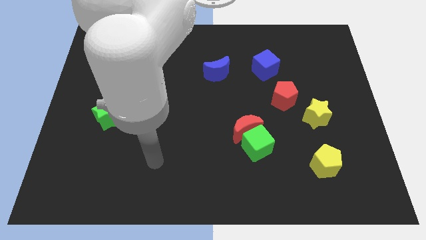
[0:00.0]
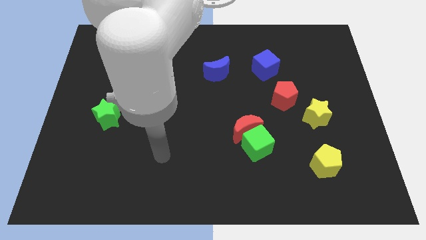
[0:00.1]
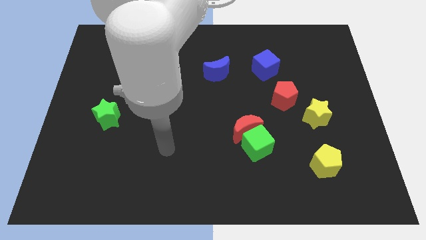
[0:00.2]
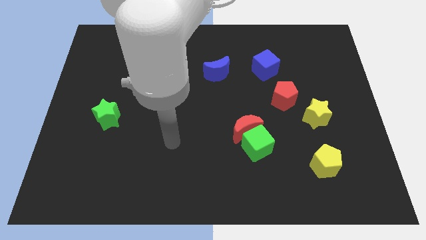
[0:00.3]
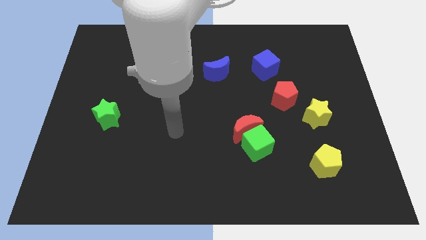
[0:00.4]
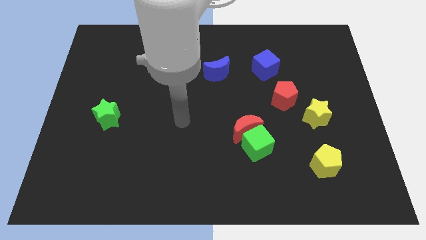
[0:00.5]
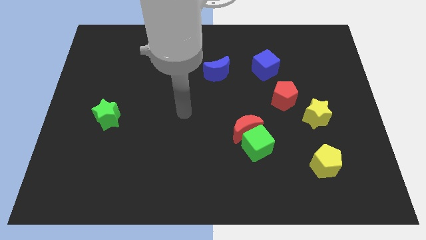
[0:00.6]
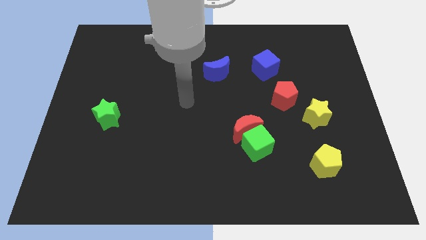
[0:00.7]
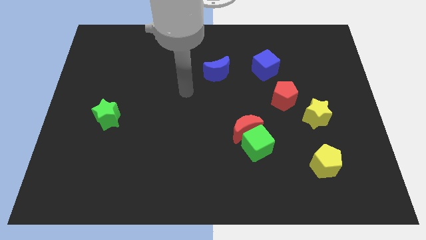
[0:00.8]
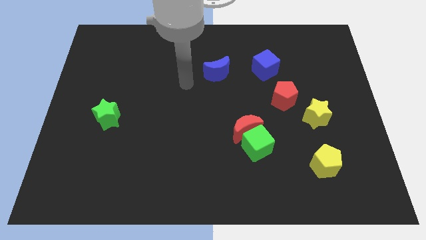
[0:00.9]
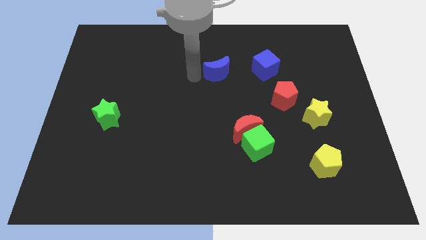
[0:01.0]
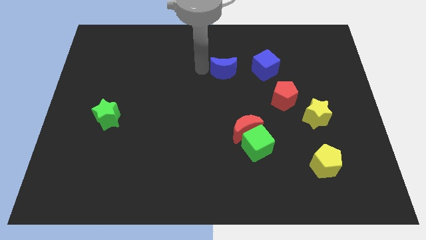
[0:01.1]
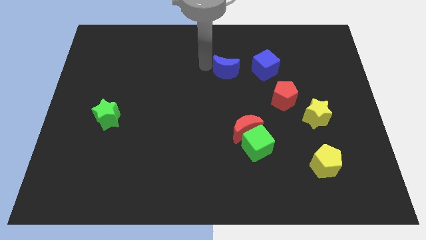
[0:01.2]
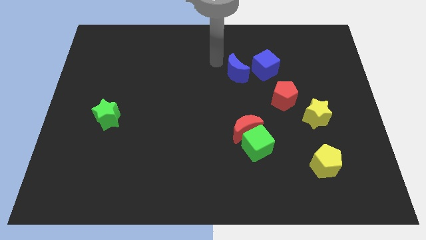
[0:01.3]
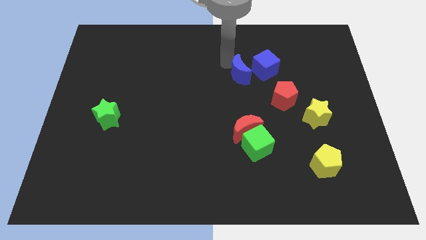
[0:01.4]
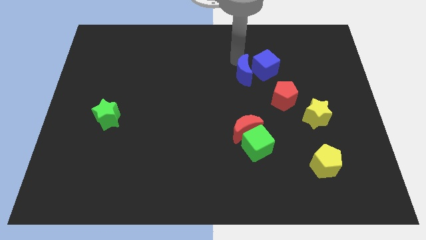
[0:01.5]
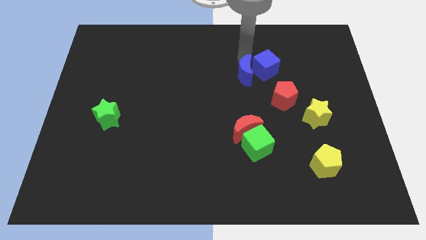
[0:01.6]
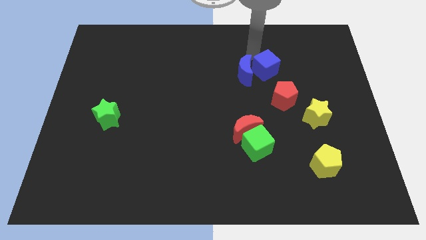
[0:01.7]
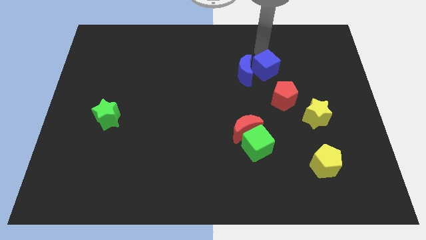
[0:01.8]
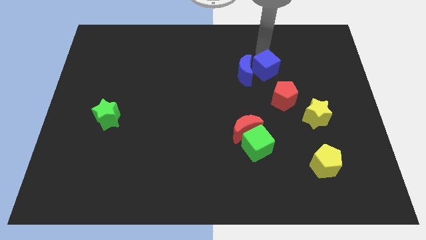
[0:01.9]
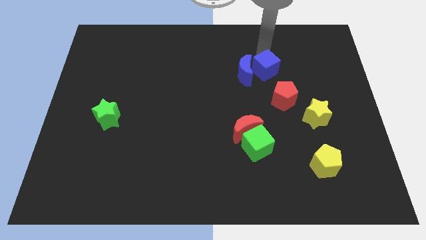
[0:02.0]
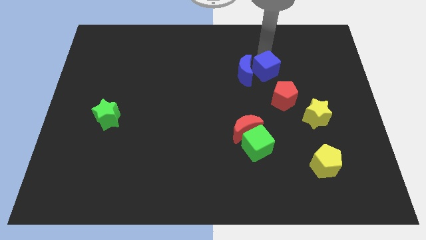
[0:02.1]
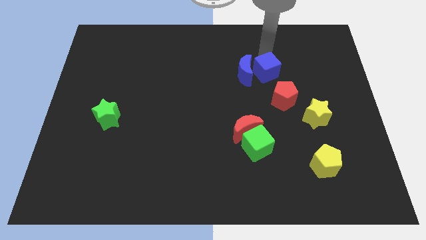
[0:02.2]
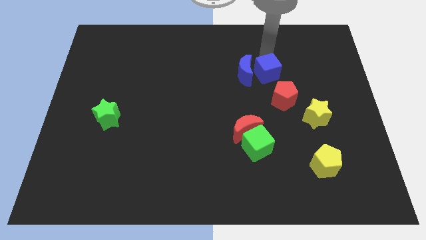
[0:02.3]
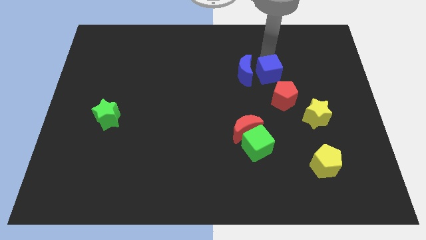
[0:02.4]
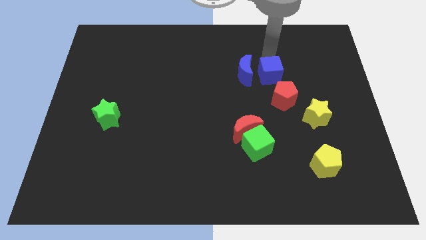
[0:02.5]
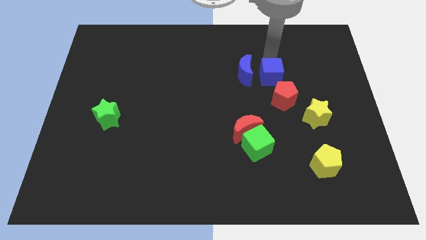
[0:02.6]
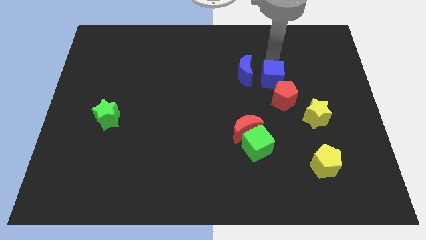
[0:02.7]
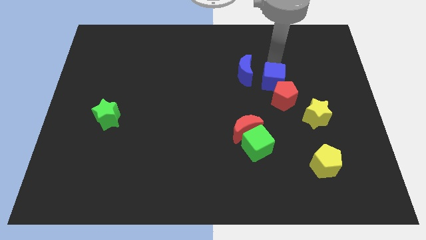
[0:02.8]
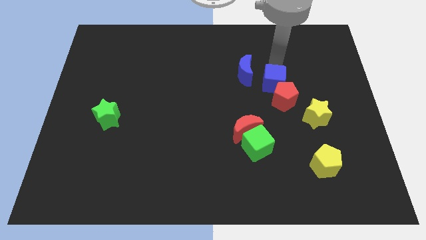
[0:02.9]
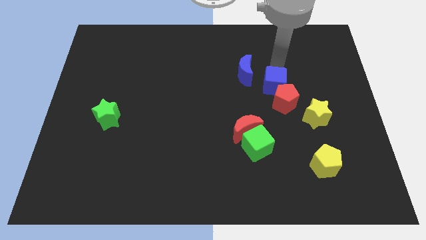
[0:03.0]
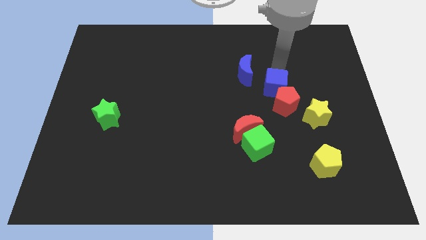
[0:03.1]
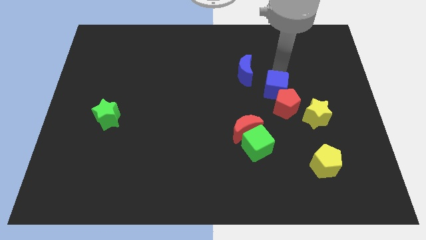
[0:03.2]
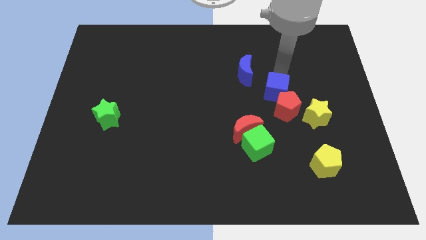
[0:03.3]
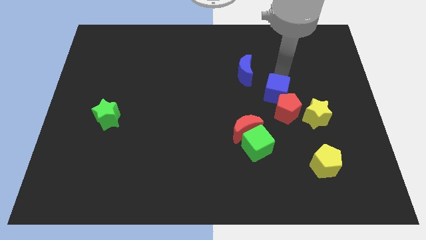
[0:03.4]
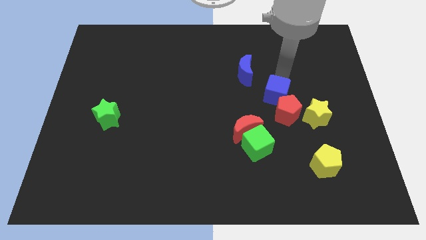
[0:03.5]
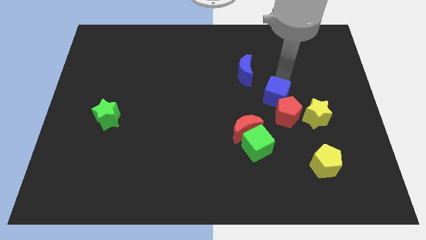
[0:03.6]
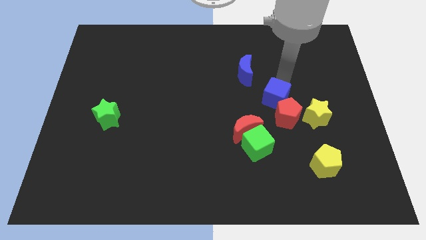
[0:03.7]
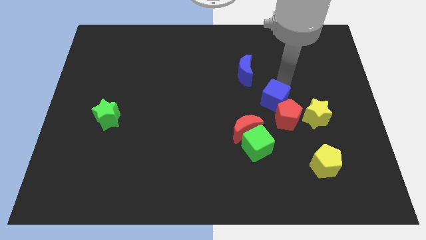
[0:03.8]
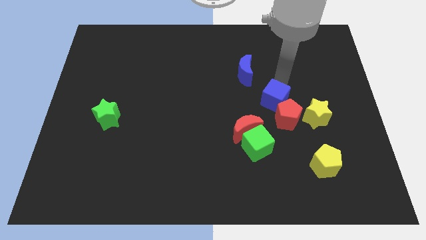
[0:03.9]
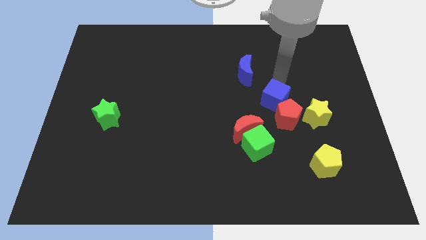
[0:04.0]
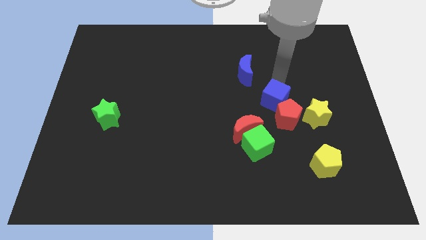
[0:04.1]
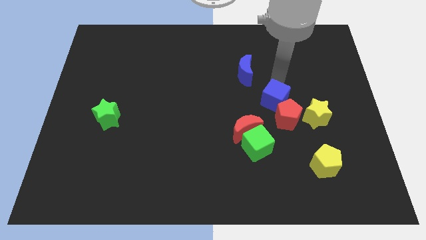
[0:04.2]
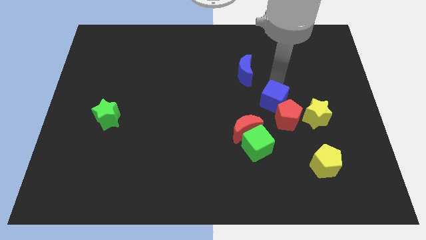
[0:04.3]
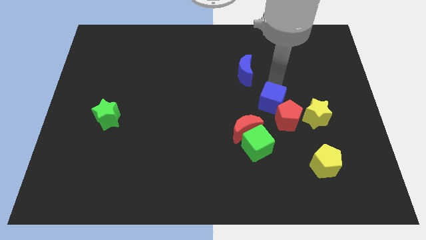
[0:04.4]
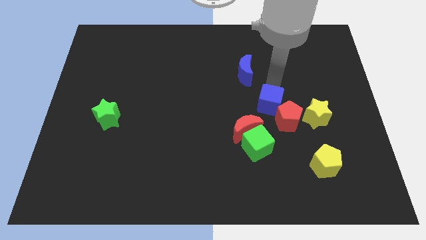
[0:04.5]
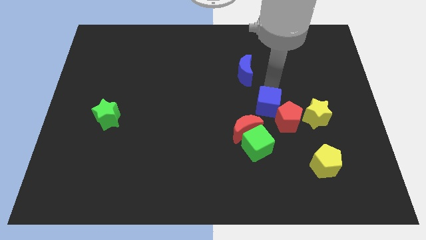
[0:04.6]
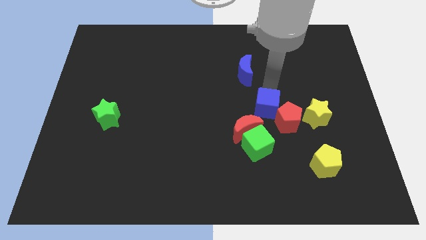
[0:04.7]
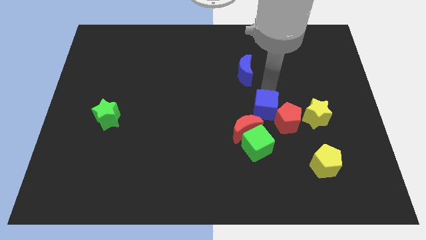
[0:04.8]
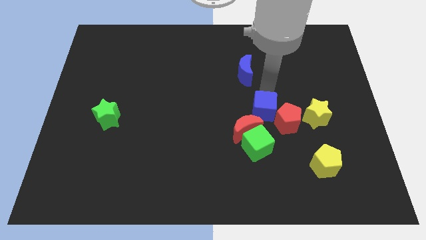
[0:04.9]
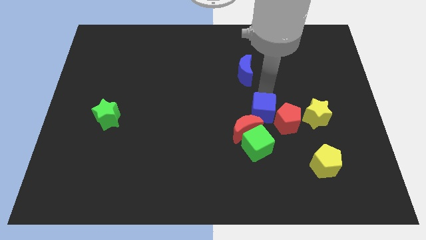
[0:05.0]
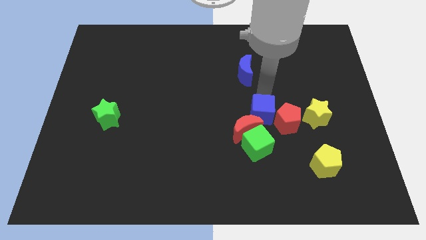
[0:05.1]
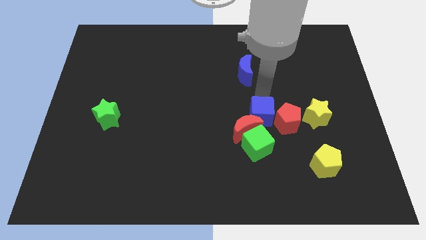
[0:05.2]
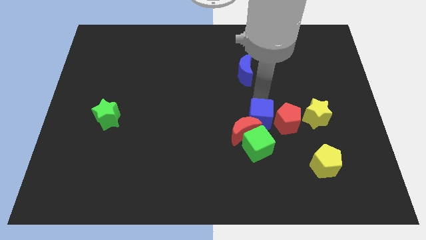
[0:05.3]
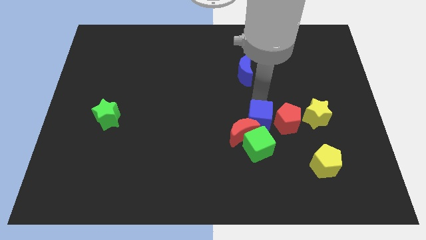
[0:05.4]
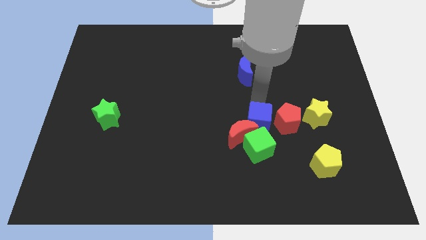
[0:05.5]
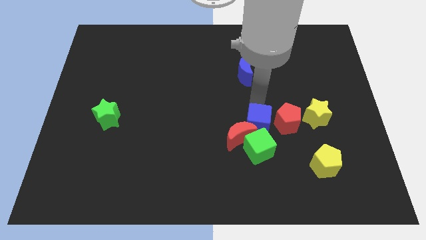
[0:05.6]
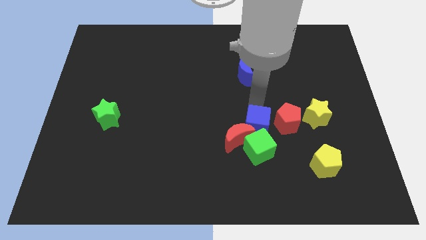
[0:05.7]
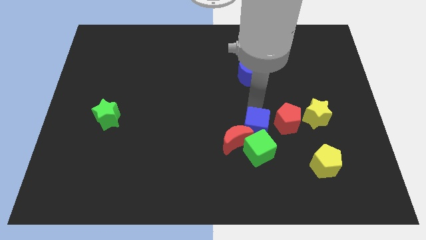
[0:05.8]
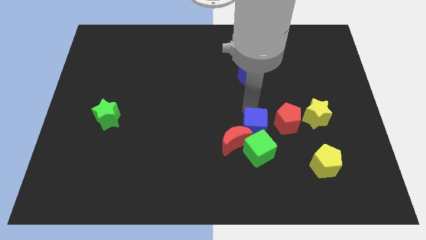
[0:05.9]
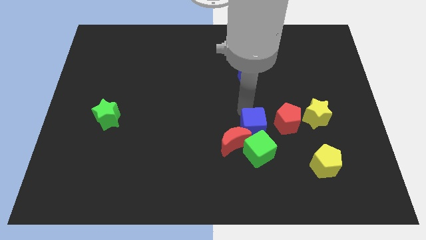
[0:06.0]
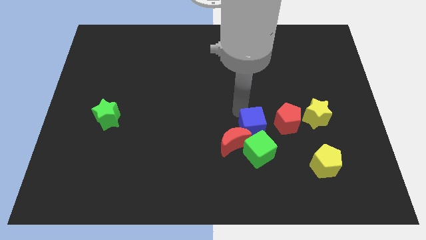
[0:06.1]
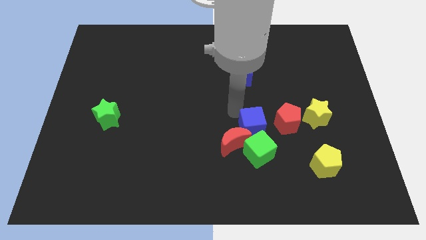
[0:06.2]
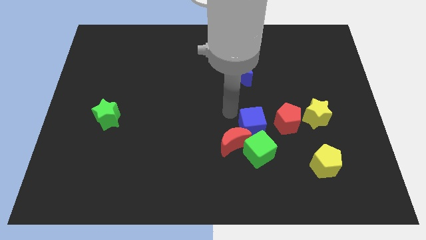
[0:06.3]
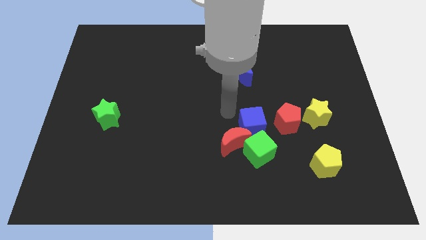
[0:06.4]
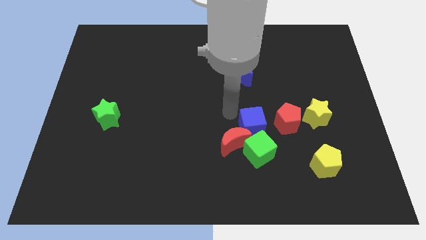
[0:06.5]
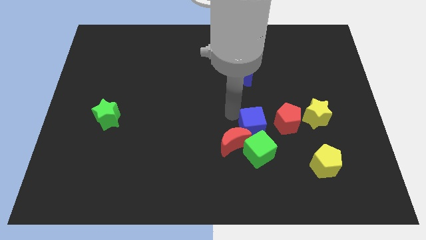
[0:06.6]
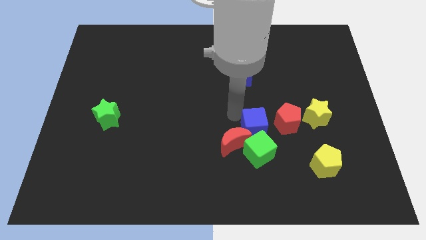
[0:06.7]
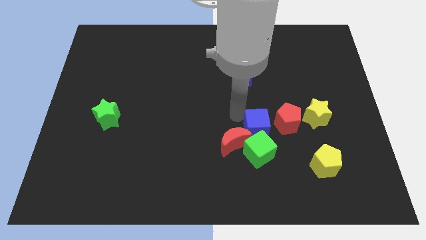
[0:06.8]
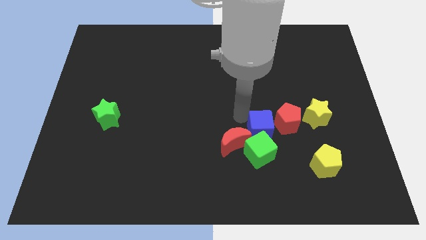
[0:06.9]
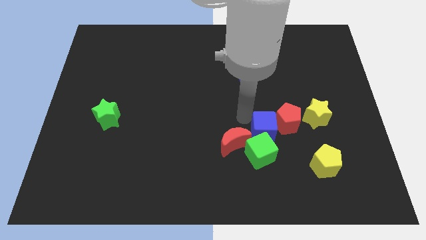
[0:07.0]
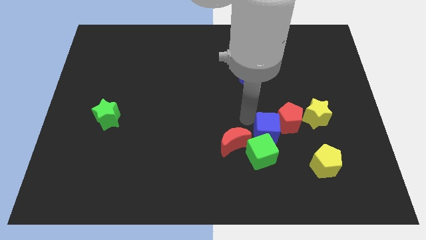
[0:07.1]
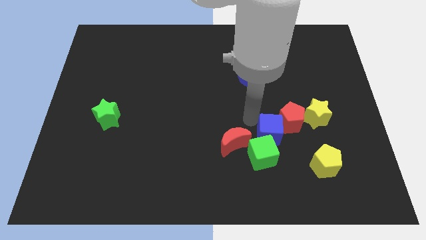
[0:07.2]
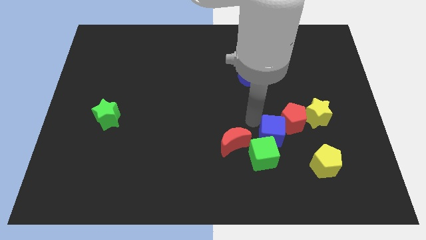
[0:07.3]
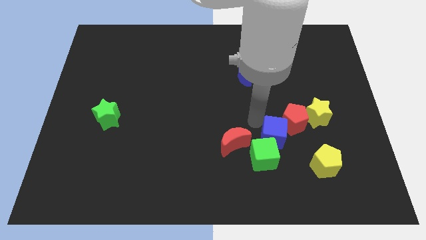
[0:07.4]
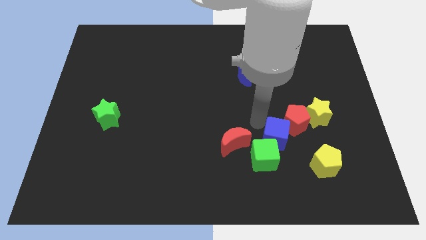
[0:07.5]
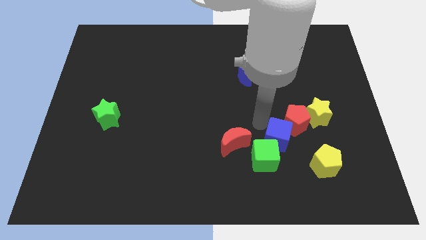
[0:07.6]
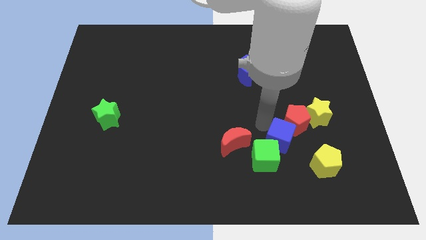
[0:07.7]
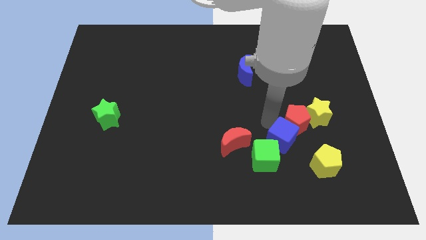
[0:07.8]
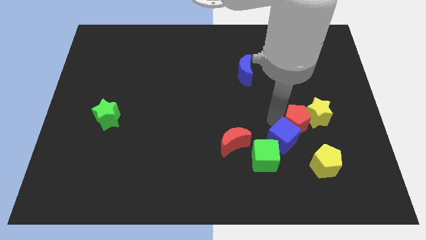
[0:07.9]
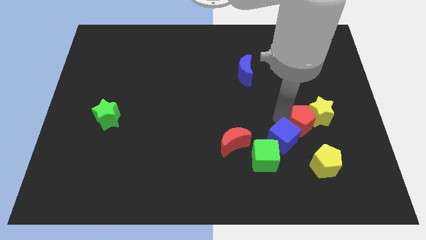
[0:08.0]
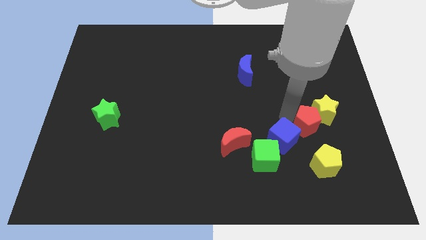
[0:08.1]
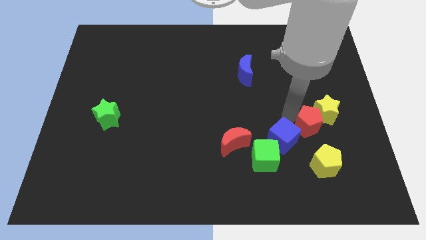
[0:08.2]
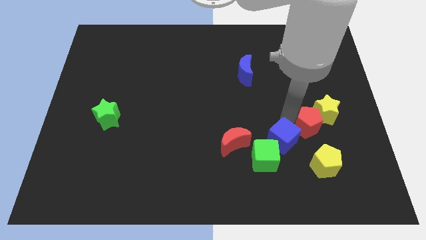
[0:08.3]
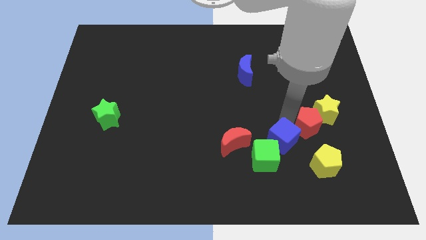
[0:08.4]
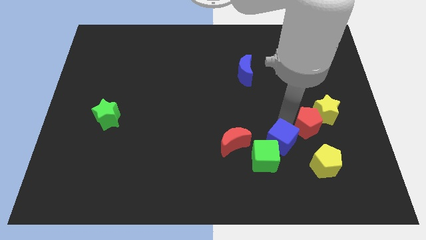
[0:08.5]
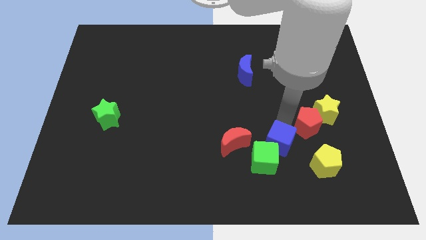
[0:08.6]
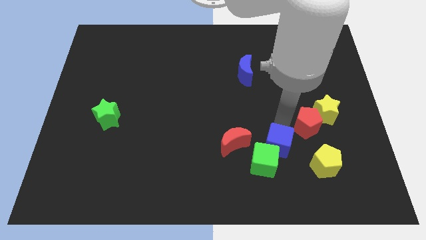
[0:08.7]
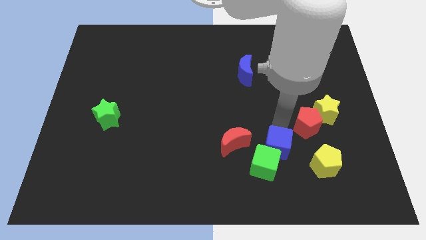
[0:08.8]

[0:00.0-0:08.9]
push the blue cube left of the yellow pentagon
